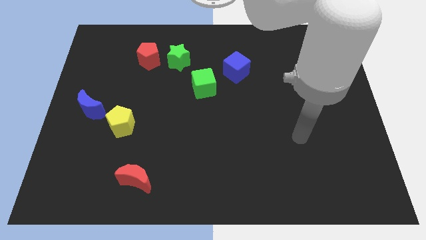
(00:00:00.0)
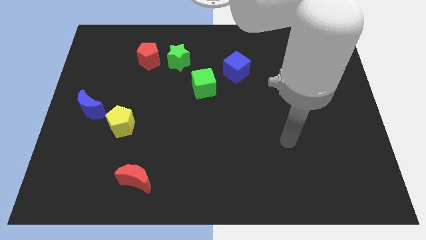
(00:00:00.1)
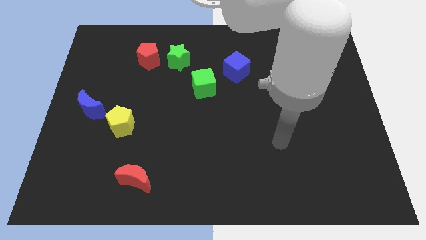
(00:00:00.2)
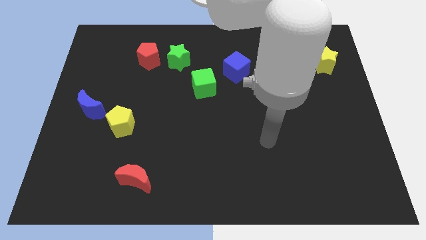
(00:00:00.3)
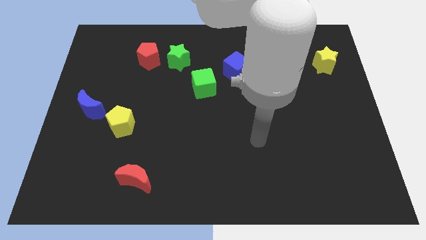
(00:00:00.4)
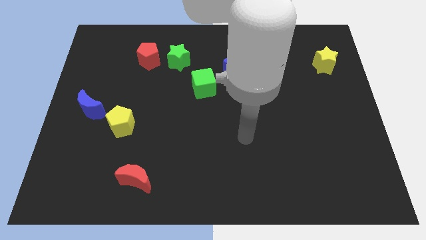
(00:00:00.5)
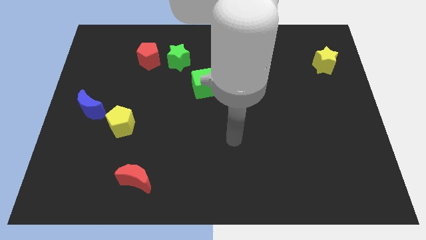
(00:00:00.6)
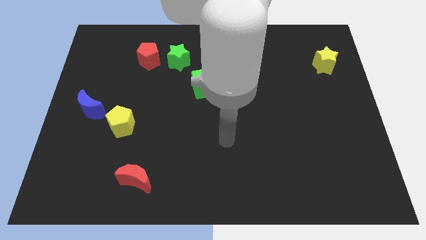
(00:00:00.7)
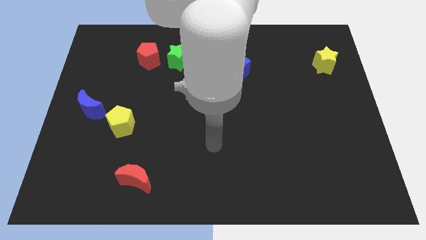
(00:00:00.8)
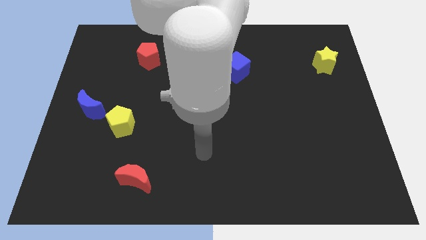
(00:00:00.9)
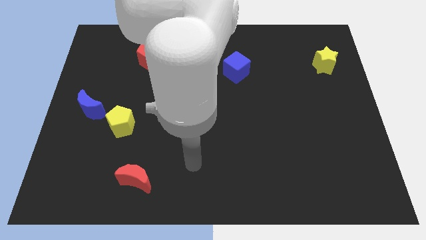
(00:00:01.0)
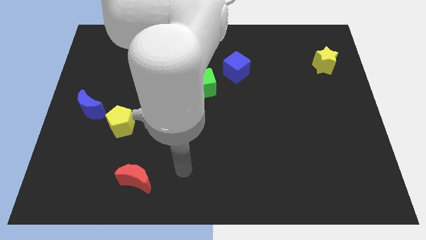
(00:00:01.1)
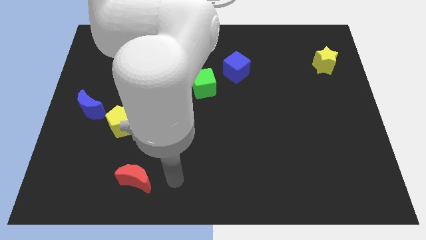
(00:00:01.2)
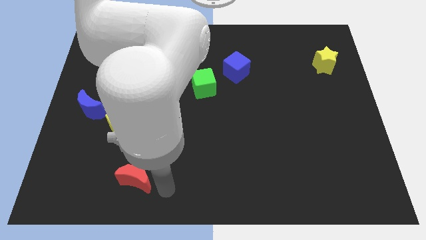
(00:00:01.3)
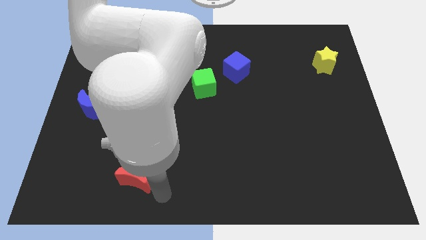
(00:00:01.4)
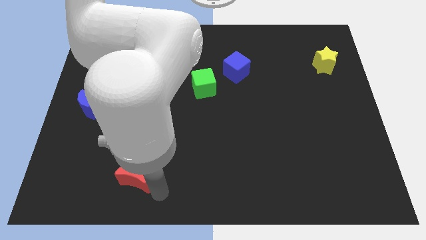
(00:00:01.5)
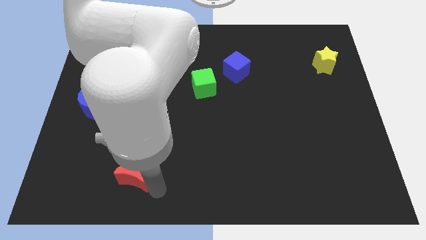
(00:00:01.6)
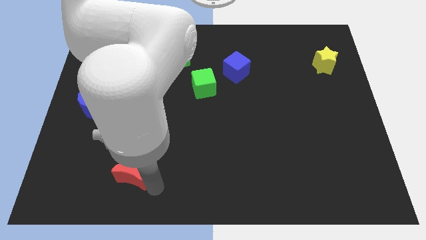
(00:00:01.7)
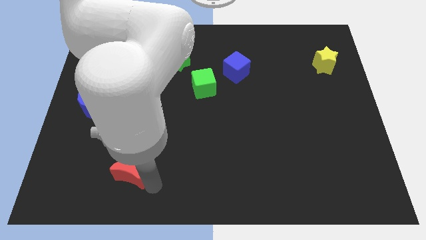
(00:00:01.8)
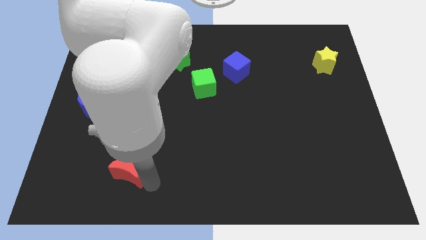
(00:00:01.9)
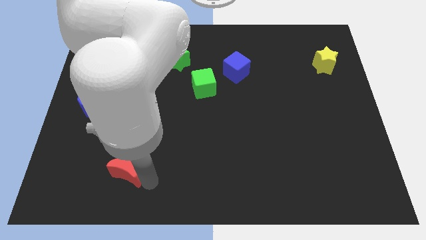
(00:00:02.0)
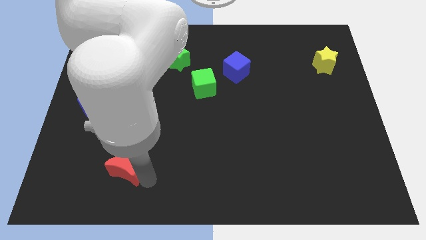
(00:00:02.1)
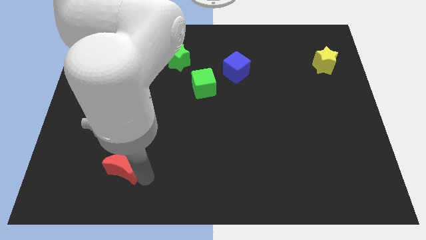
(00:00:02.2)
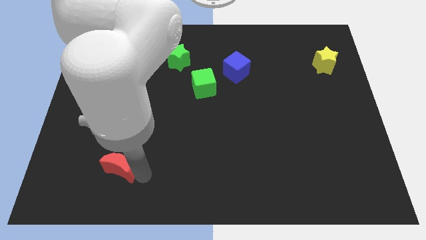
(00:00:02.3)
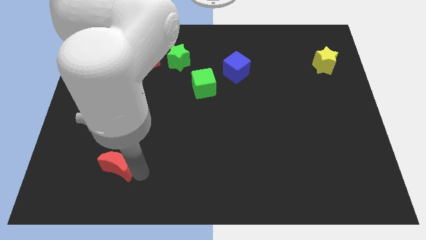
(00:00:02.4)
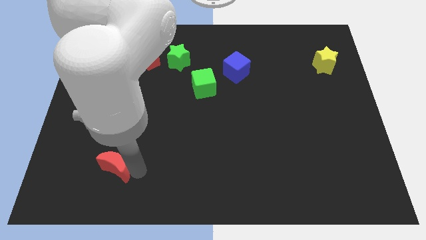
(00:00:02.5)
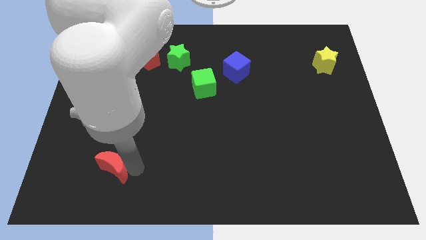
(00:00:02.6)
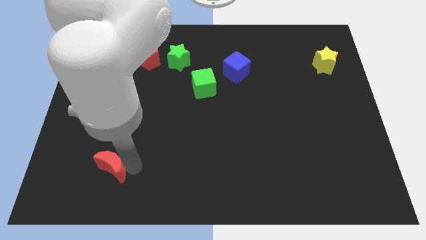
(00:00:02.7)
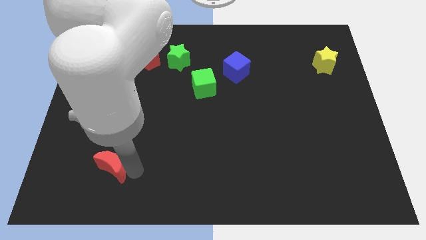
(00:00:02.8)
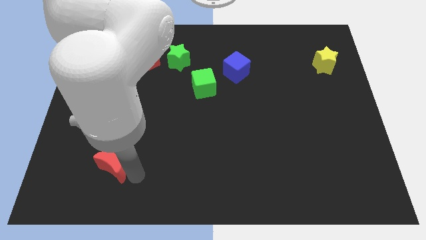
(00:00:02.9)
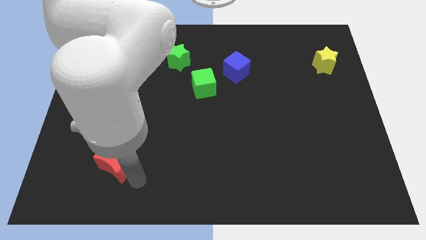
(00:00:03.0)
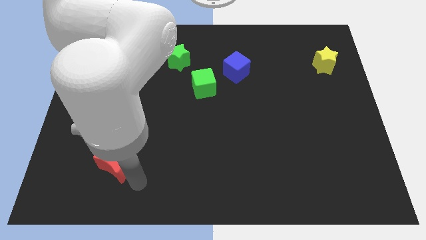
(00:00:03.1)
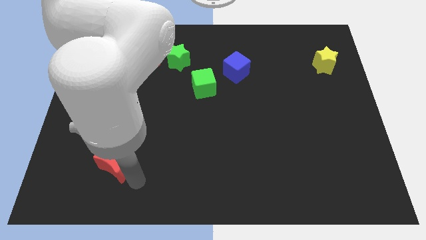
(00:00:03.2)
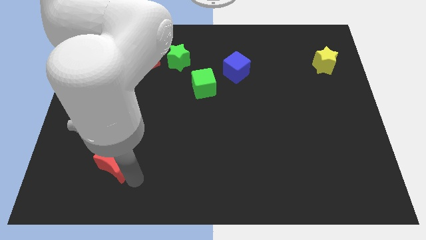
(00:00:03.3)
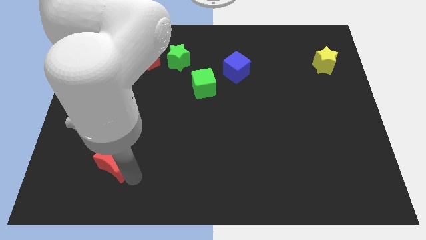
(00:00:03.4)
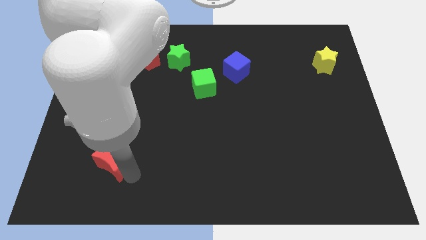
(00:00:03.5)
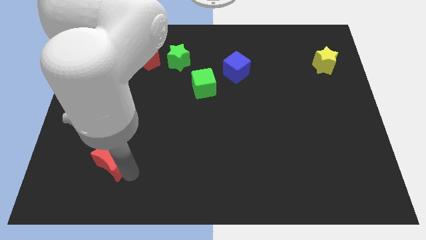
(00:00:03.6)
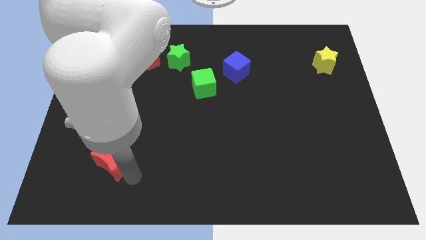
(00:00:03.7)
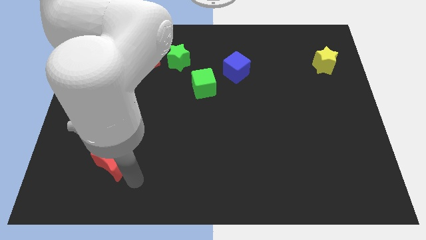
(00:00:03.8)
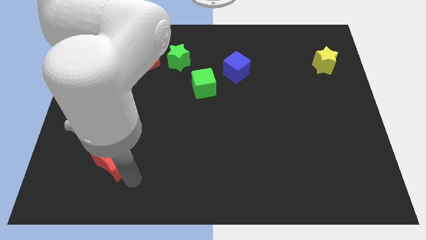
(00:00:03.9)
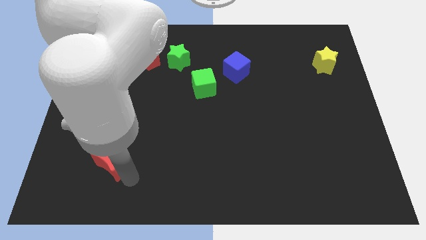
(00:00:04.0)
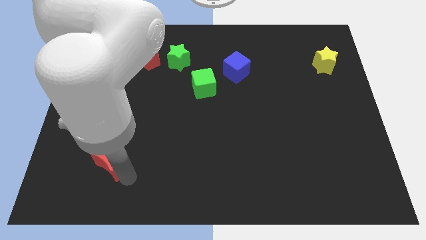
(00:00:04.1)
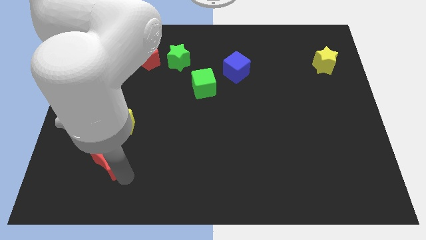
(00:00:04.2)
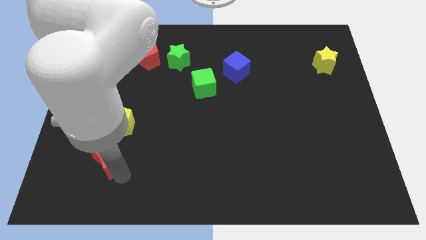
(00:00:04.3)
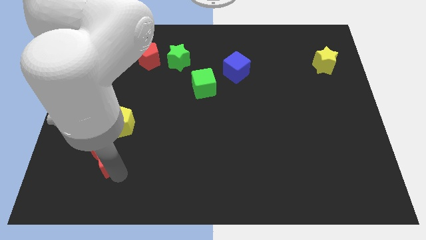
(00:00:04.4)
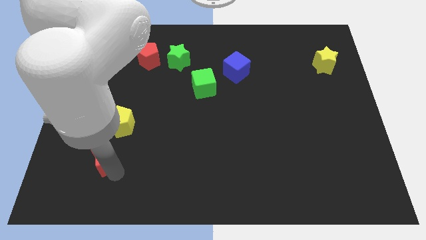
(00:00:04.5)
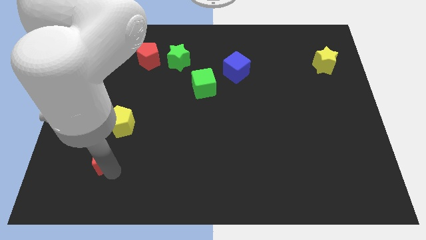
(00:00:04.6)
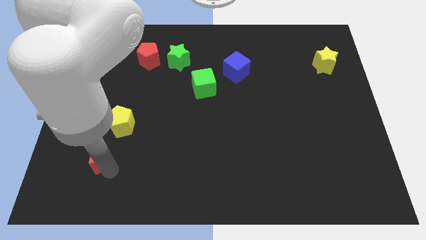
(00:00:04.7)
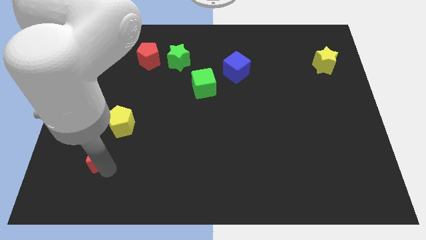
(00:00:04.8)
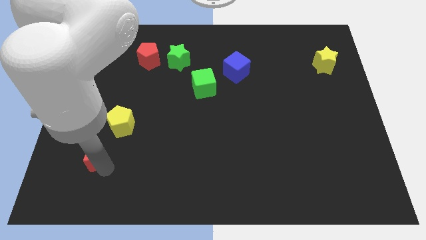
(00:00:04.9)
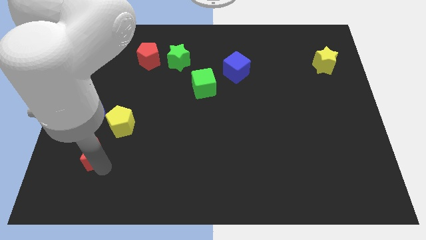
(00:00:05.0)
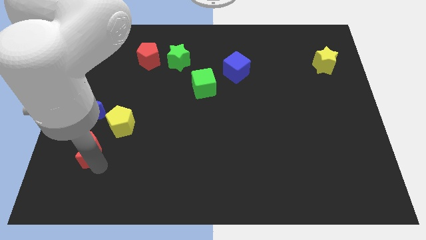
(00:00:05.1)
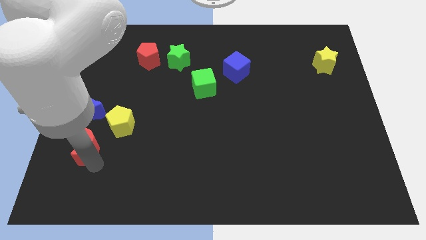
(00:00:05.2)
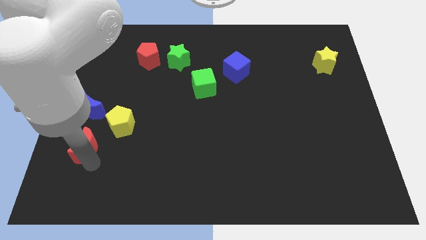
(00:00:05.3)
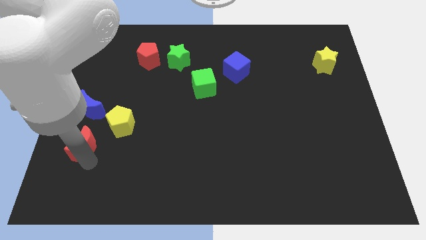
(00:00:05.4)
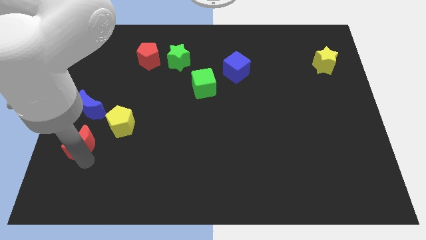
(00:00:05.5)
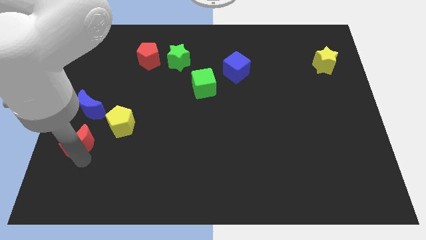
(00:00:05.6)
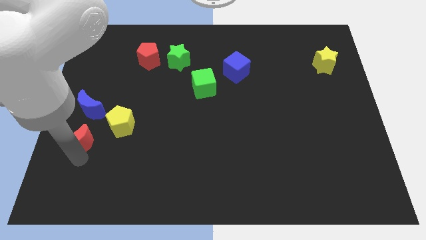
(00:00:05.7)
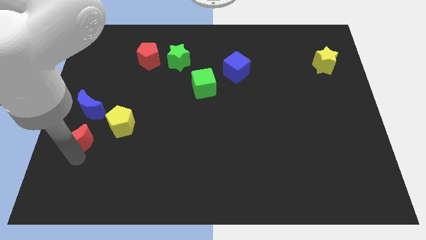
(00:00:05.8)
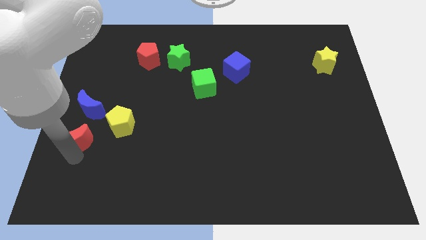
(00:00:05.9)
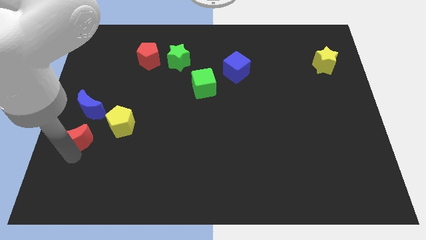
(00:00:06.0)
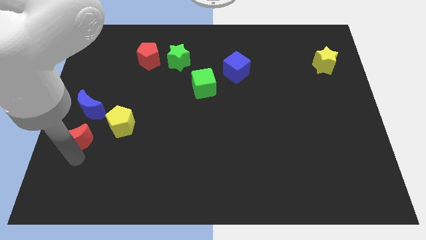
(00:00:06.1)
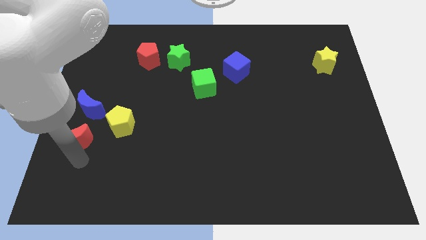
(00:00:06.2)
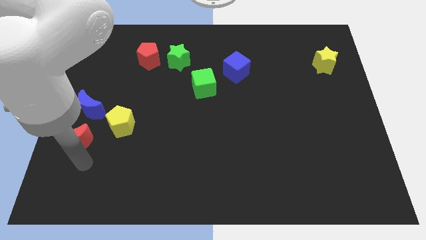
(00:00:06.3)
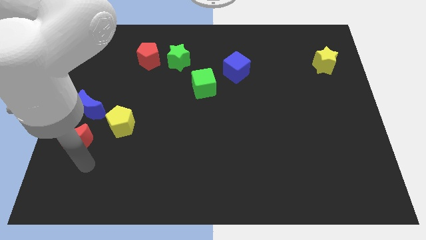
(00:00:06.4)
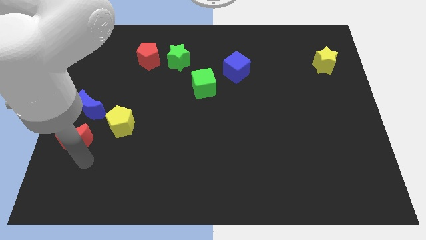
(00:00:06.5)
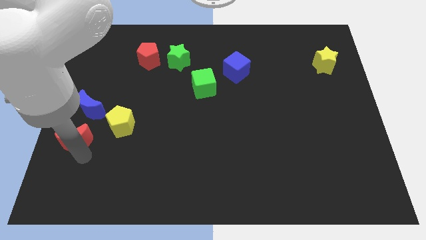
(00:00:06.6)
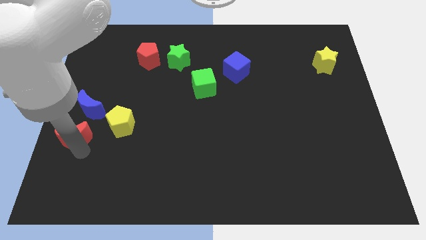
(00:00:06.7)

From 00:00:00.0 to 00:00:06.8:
push the red moon to the left side of the board

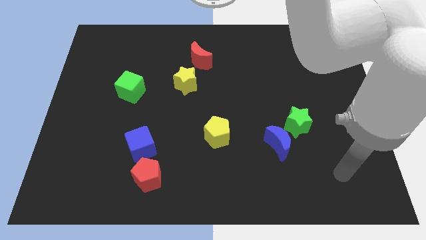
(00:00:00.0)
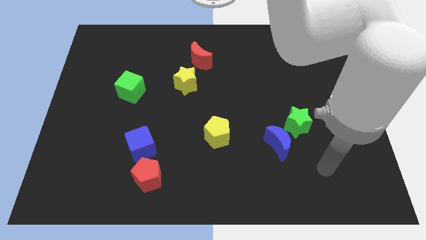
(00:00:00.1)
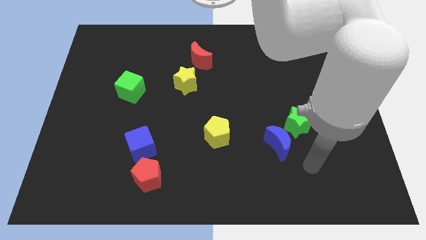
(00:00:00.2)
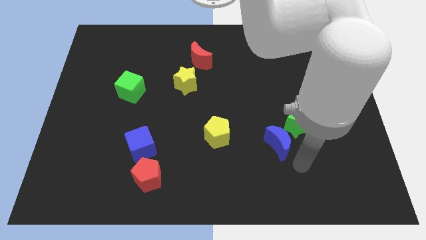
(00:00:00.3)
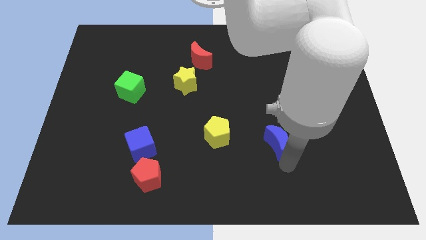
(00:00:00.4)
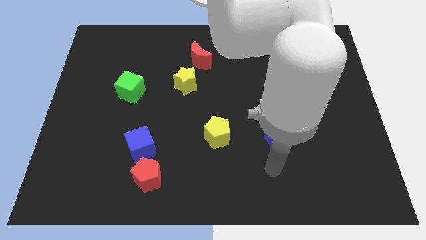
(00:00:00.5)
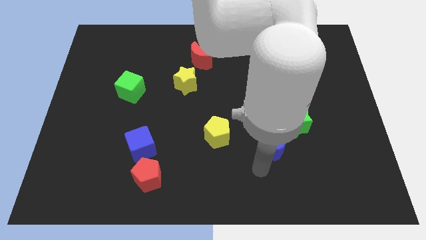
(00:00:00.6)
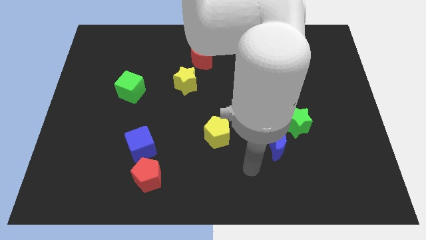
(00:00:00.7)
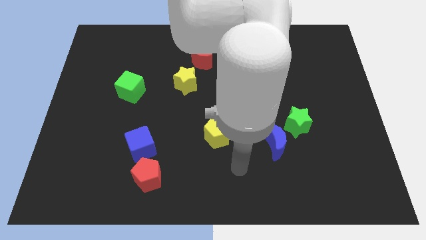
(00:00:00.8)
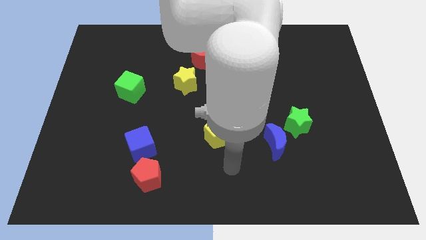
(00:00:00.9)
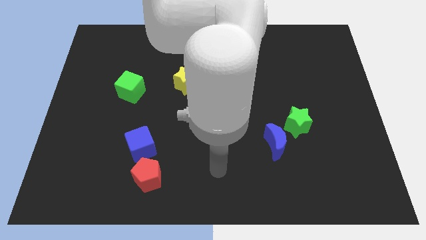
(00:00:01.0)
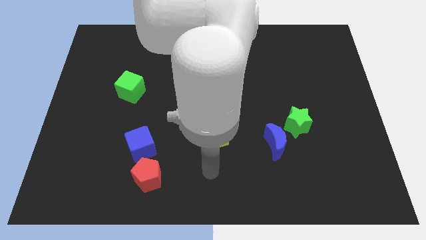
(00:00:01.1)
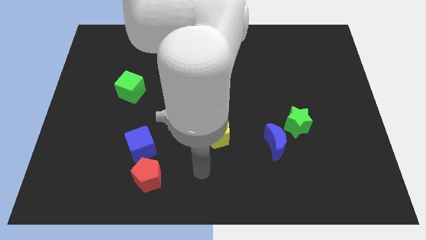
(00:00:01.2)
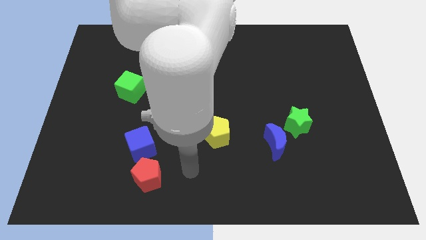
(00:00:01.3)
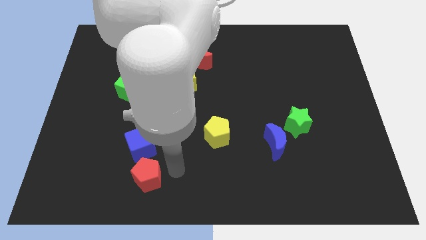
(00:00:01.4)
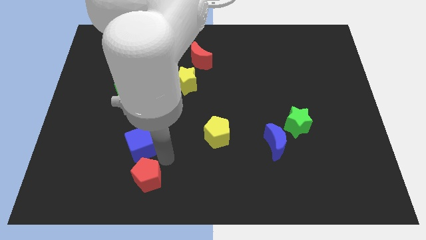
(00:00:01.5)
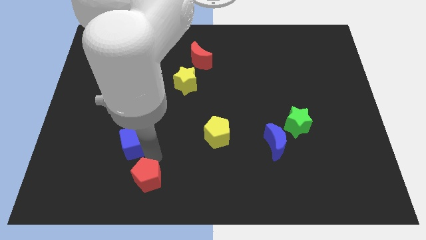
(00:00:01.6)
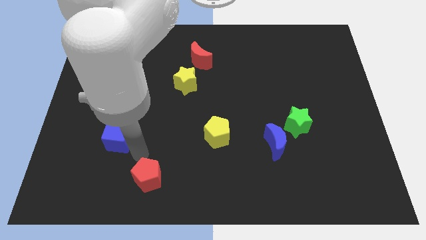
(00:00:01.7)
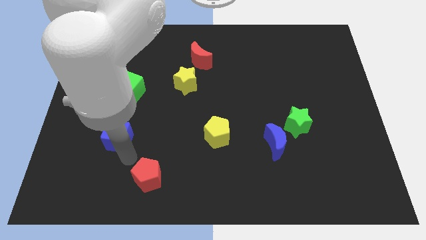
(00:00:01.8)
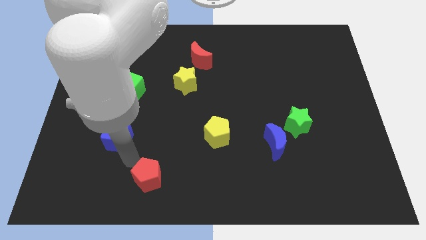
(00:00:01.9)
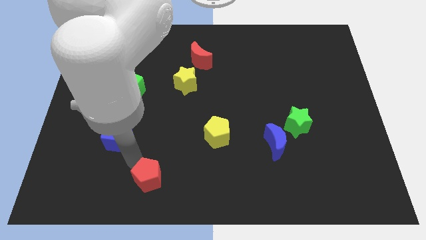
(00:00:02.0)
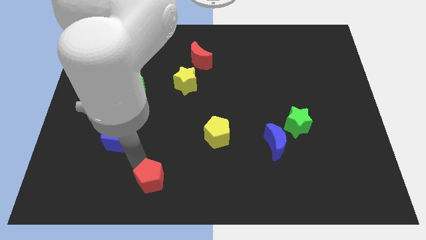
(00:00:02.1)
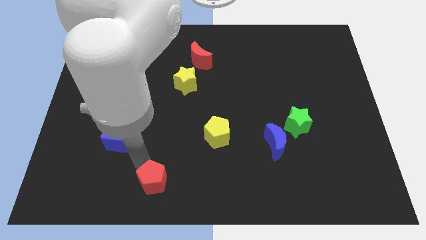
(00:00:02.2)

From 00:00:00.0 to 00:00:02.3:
move the red pentagon to the bottom
